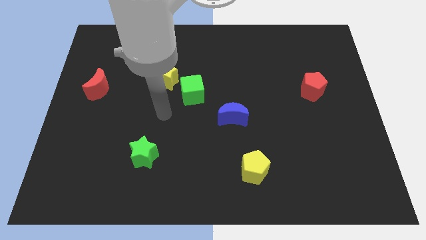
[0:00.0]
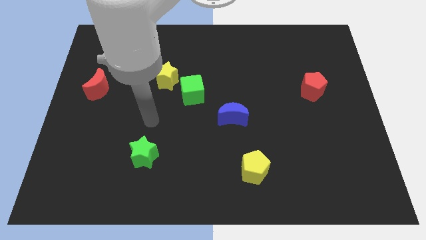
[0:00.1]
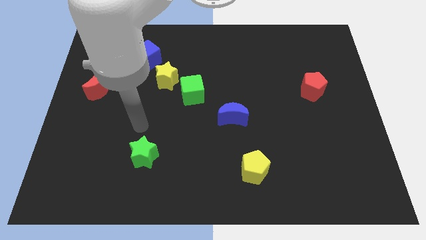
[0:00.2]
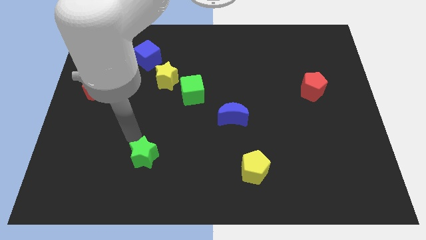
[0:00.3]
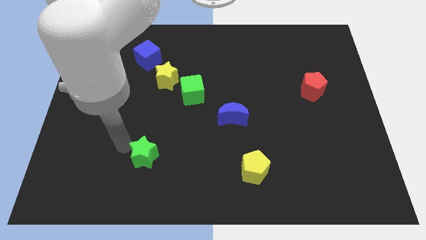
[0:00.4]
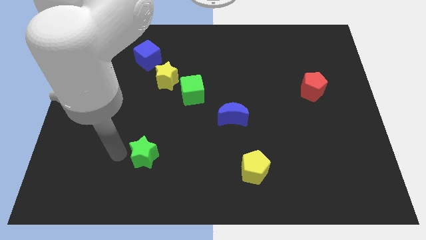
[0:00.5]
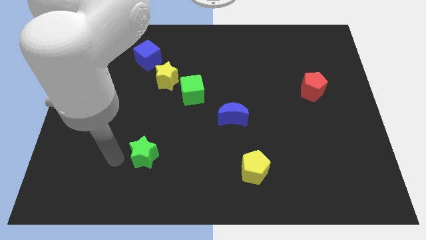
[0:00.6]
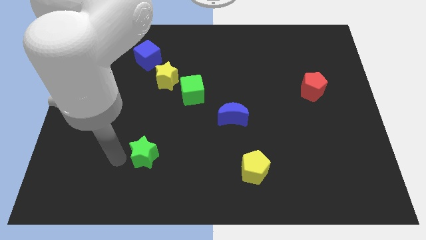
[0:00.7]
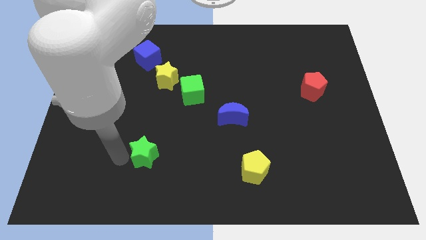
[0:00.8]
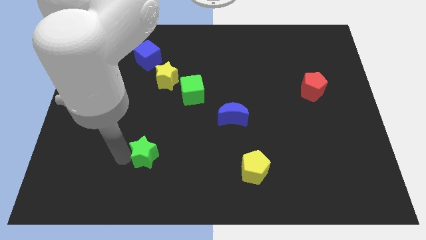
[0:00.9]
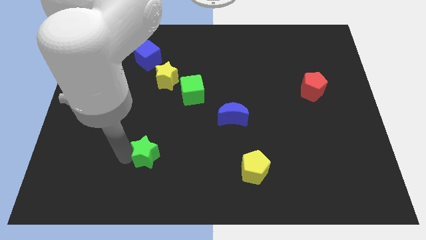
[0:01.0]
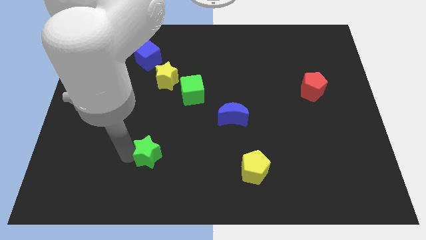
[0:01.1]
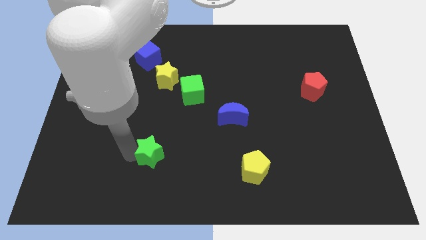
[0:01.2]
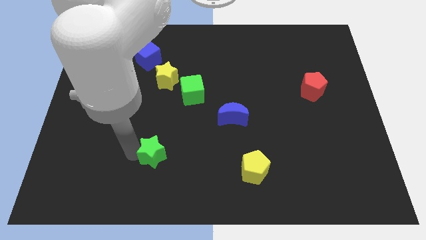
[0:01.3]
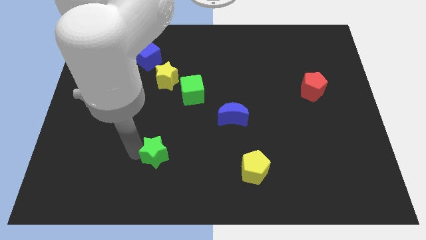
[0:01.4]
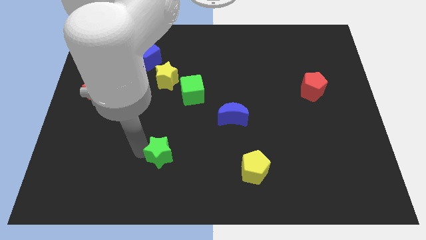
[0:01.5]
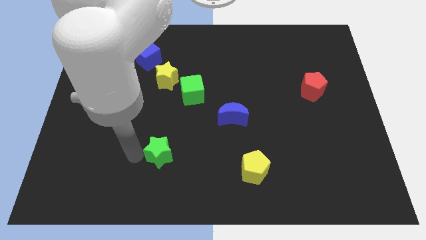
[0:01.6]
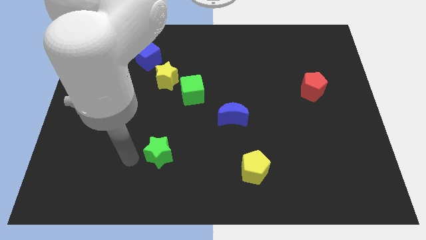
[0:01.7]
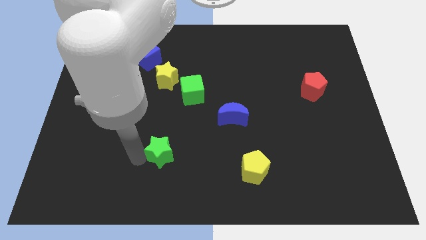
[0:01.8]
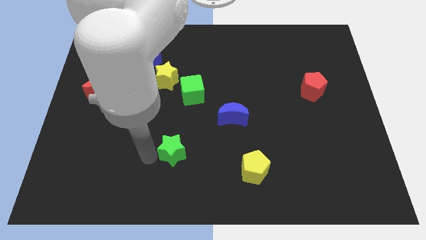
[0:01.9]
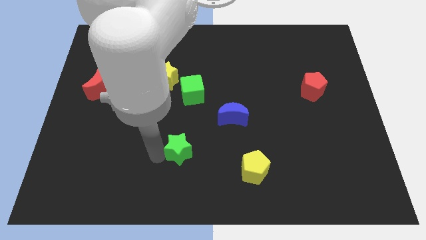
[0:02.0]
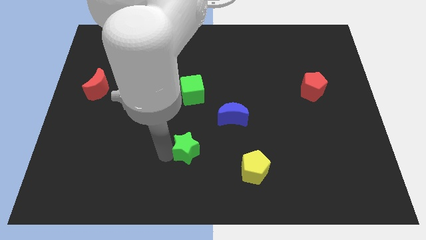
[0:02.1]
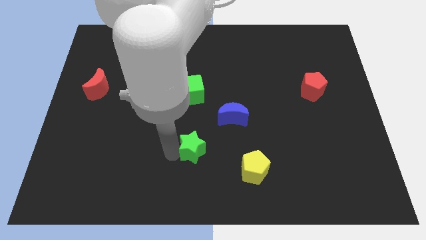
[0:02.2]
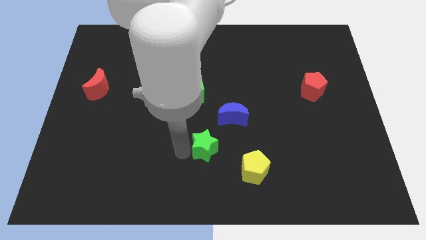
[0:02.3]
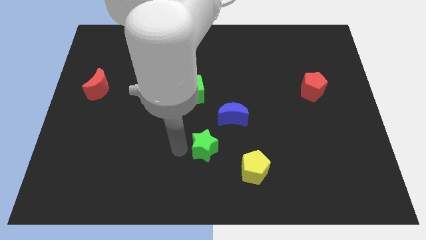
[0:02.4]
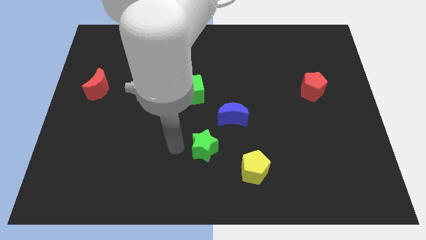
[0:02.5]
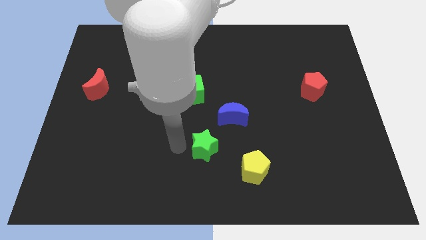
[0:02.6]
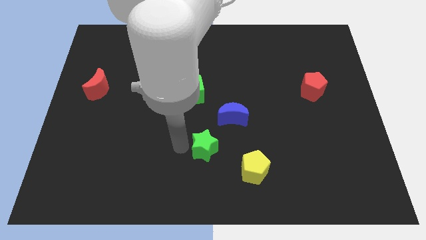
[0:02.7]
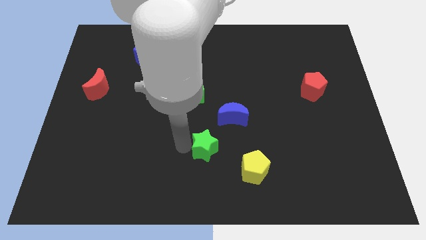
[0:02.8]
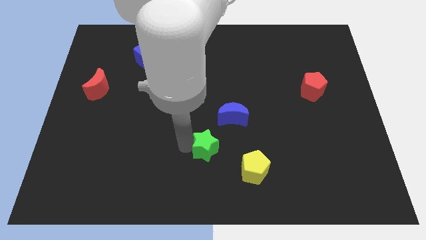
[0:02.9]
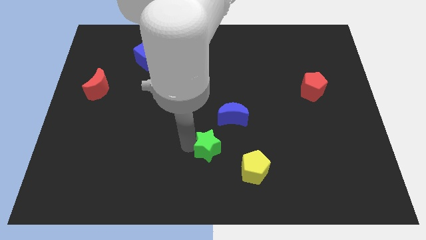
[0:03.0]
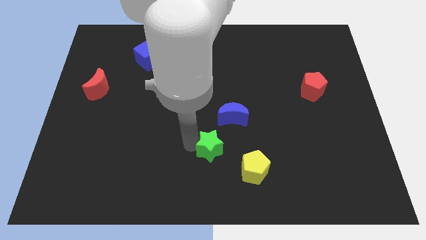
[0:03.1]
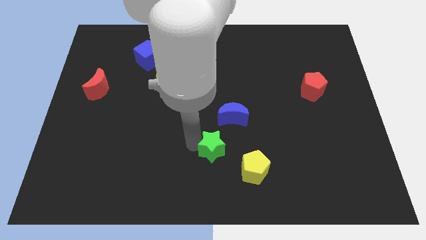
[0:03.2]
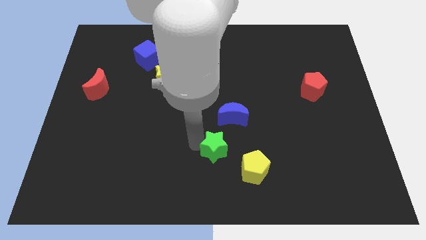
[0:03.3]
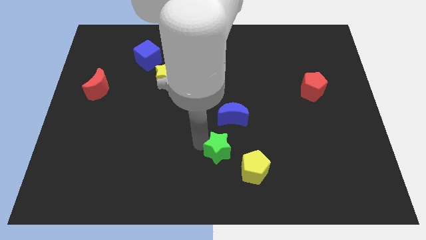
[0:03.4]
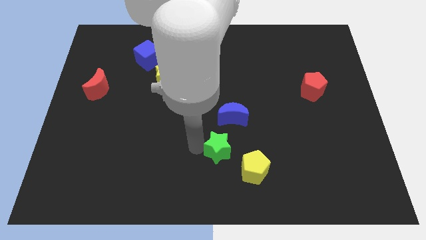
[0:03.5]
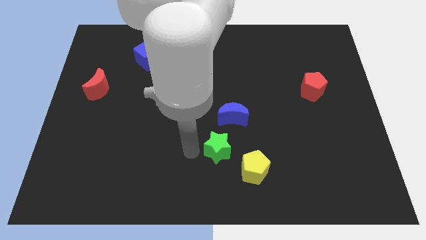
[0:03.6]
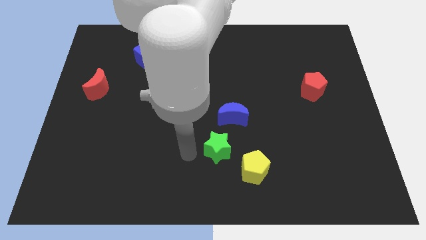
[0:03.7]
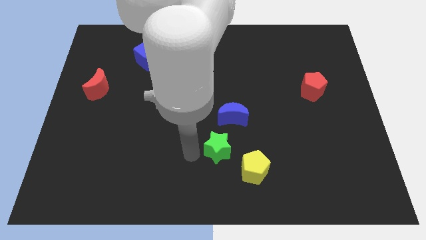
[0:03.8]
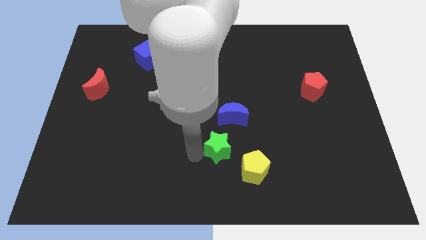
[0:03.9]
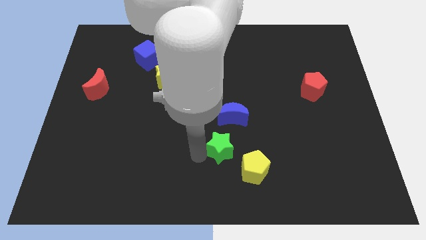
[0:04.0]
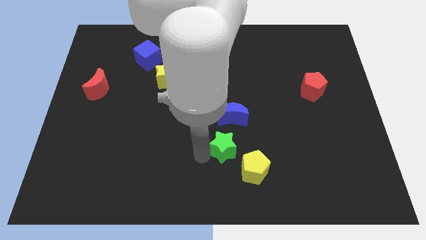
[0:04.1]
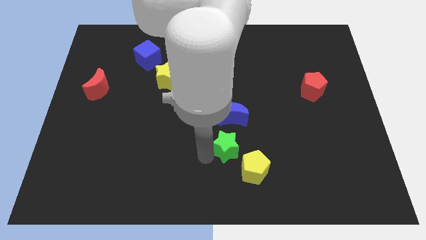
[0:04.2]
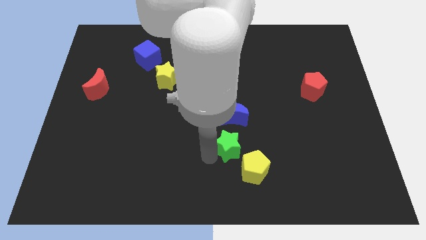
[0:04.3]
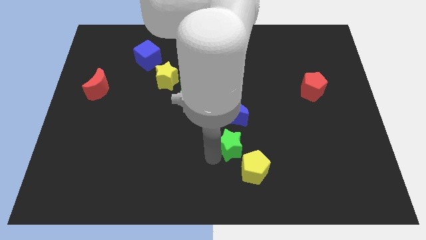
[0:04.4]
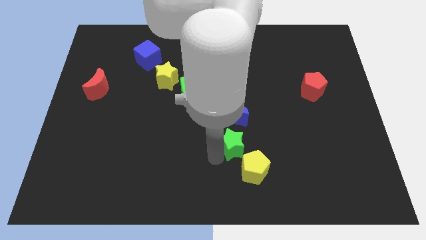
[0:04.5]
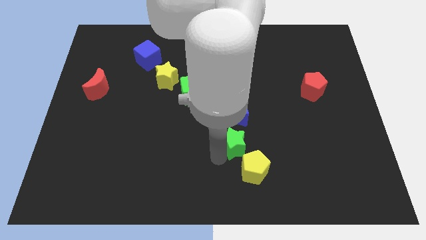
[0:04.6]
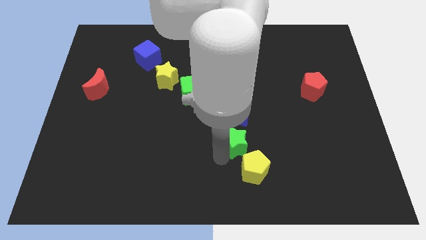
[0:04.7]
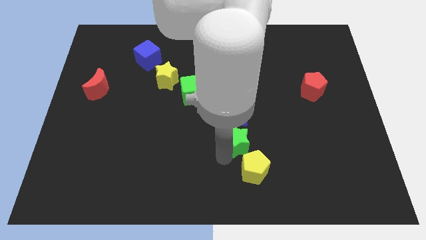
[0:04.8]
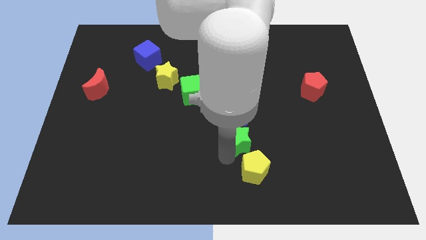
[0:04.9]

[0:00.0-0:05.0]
move the green star to the right

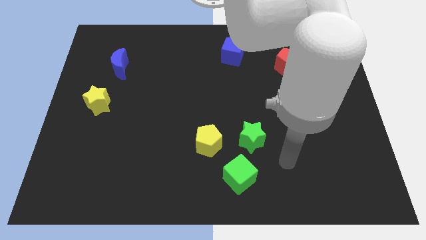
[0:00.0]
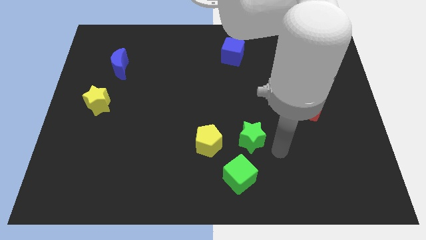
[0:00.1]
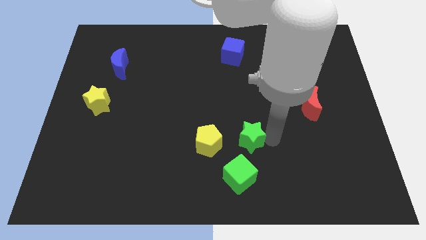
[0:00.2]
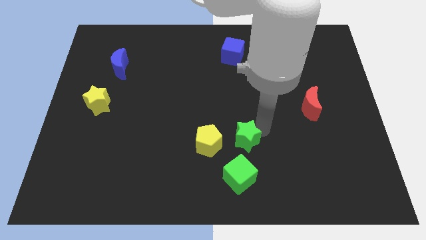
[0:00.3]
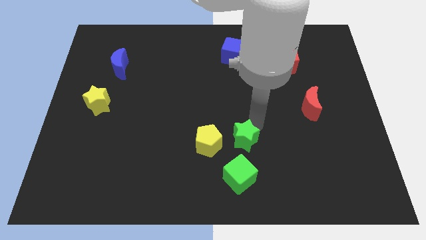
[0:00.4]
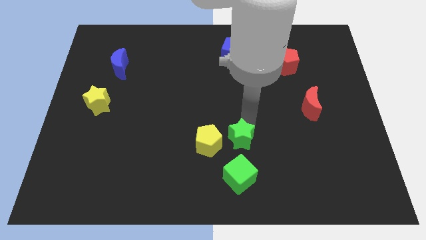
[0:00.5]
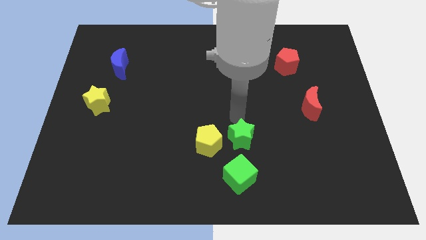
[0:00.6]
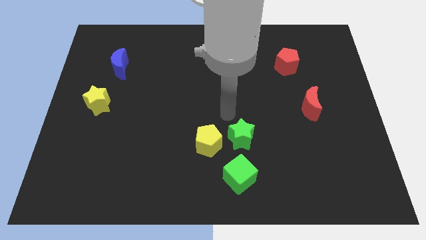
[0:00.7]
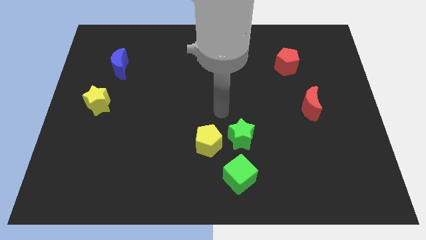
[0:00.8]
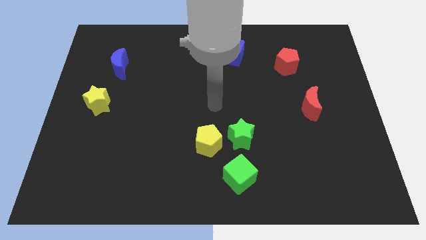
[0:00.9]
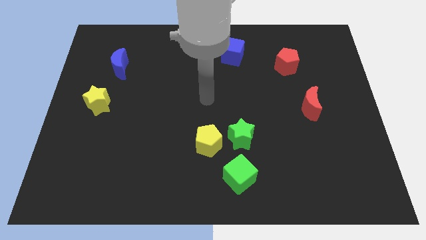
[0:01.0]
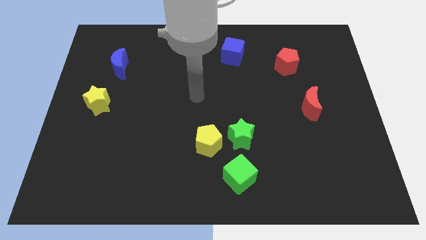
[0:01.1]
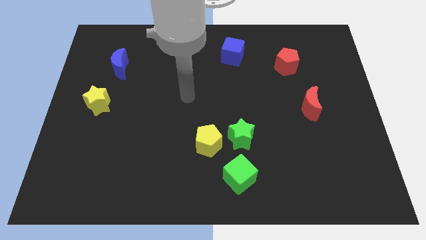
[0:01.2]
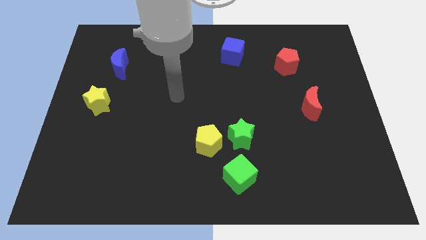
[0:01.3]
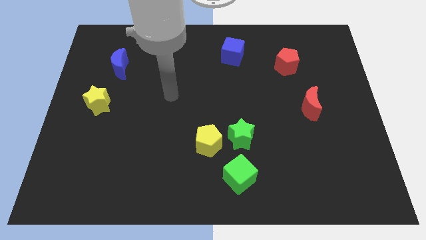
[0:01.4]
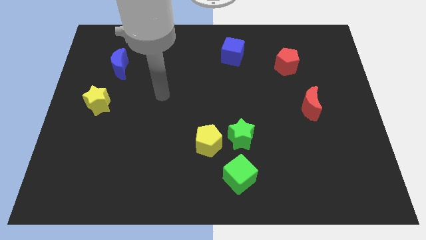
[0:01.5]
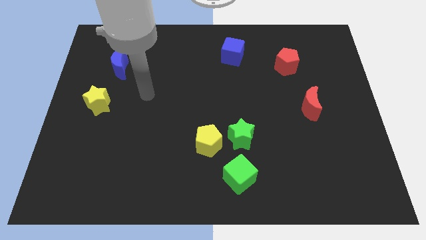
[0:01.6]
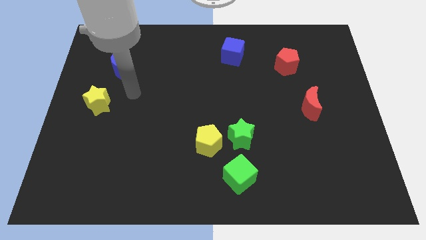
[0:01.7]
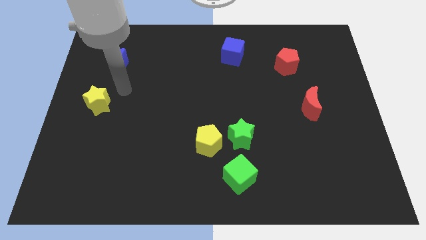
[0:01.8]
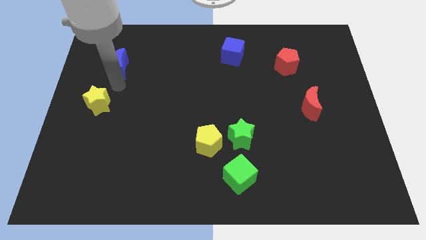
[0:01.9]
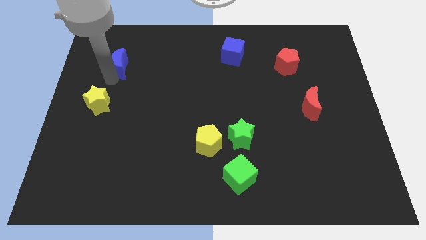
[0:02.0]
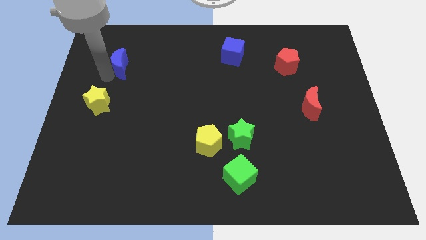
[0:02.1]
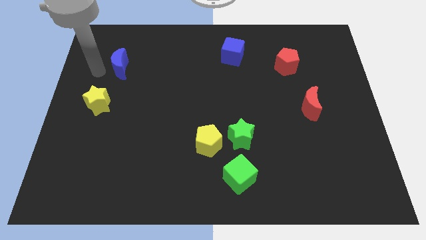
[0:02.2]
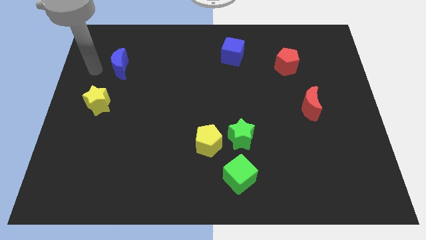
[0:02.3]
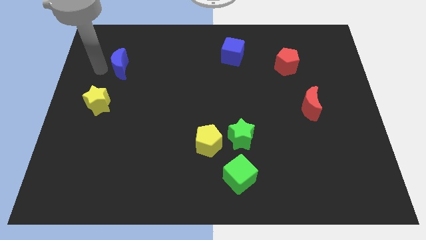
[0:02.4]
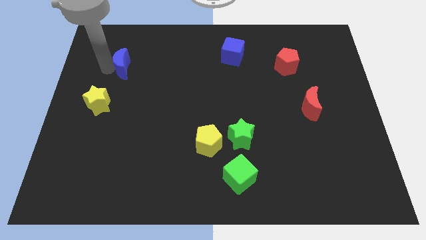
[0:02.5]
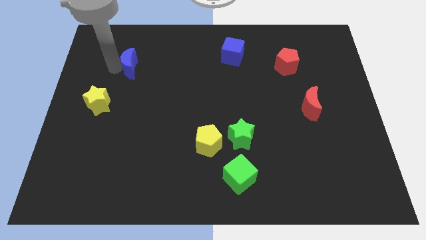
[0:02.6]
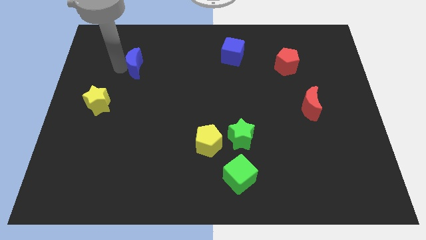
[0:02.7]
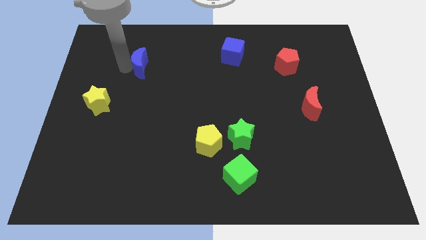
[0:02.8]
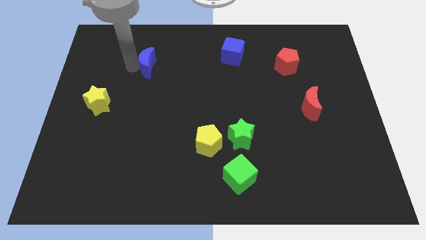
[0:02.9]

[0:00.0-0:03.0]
slightly slide the blue moon right

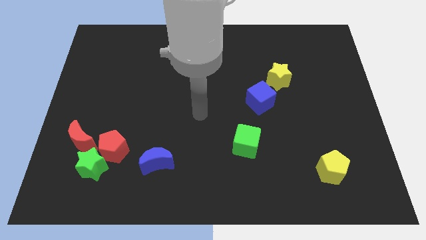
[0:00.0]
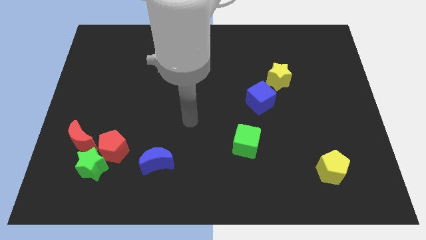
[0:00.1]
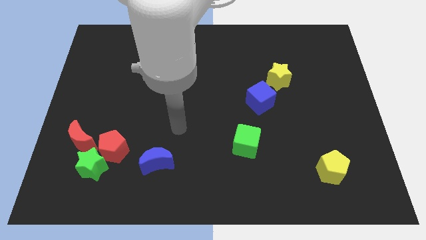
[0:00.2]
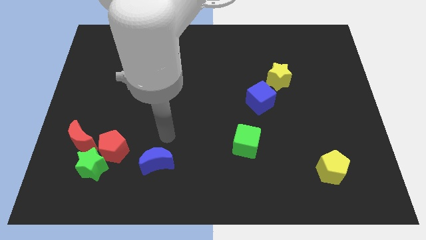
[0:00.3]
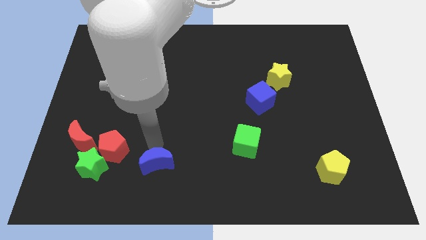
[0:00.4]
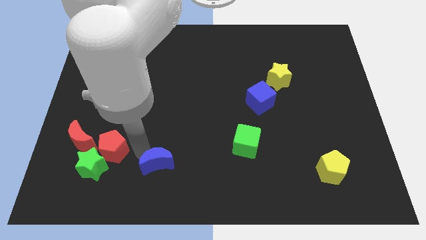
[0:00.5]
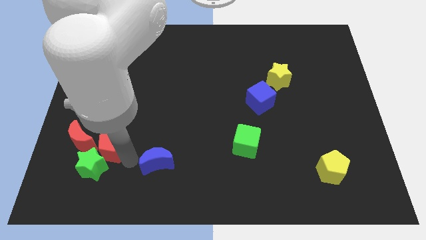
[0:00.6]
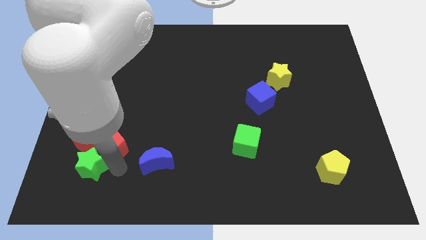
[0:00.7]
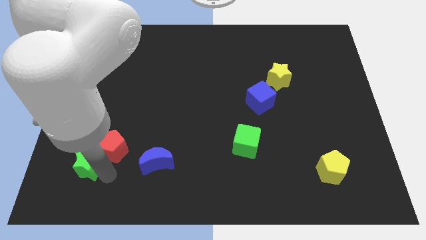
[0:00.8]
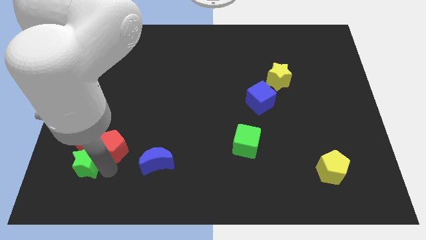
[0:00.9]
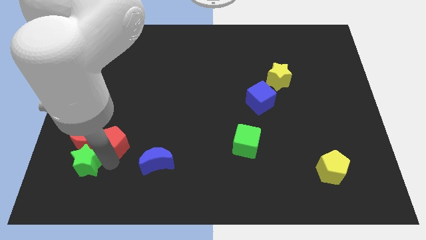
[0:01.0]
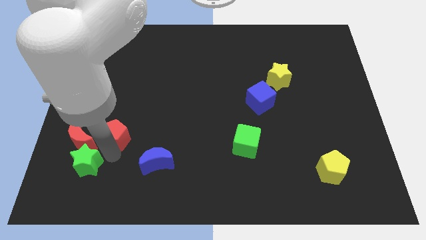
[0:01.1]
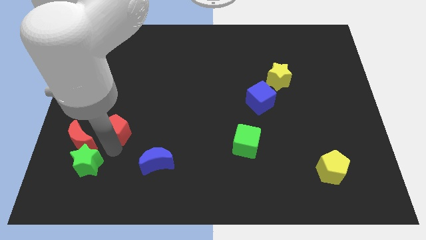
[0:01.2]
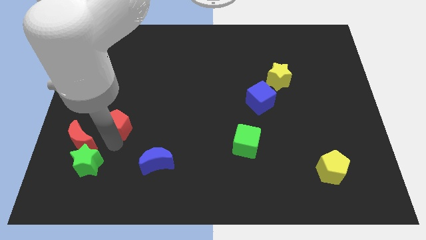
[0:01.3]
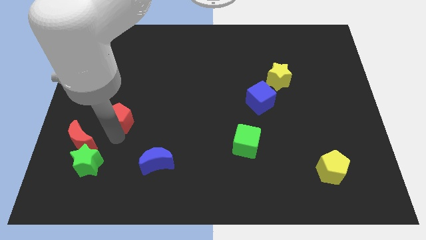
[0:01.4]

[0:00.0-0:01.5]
slide the red pentagon upwards slightly
